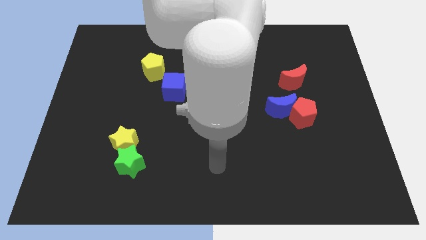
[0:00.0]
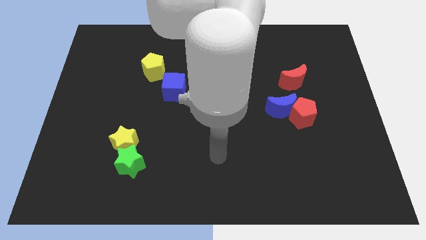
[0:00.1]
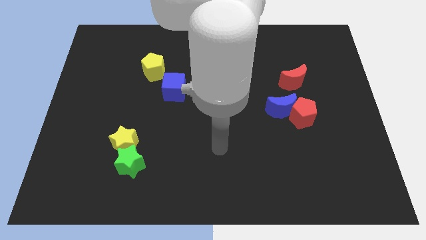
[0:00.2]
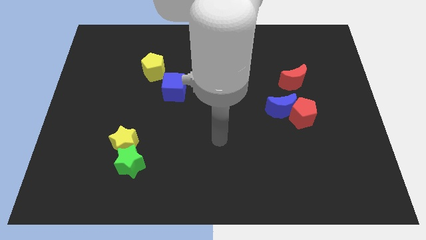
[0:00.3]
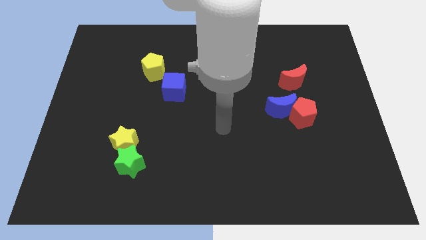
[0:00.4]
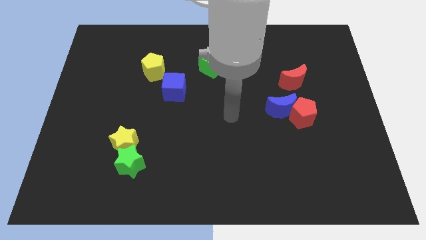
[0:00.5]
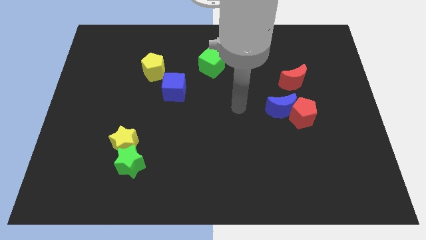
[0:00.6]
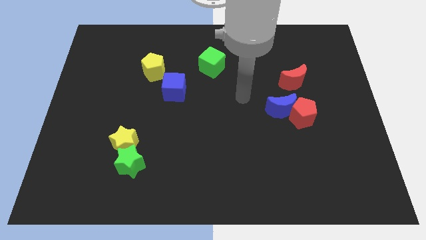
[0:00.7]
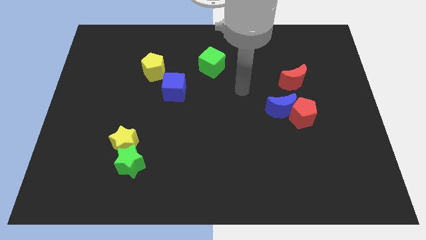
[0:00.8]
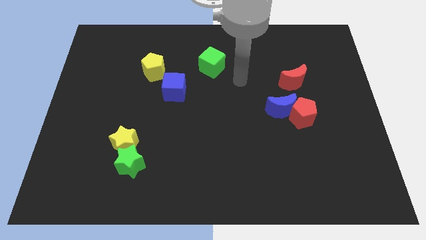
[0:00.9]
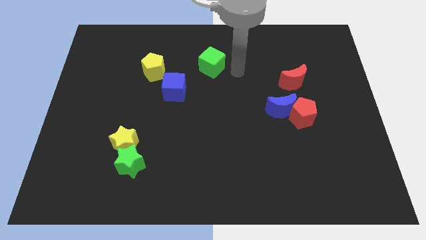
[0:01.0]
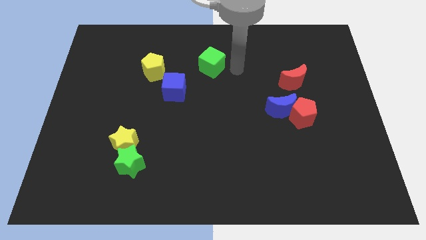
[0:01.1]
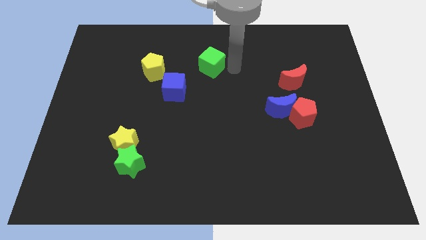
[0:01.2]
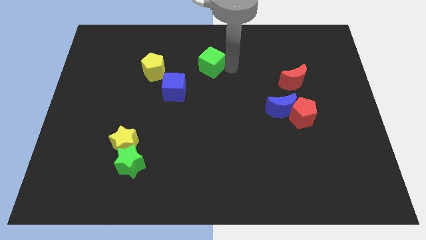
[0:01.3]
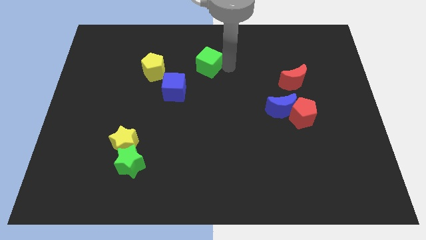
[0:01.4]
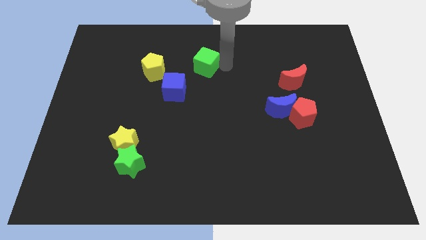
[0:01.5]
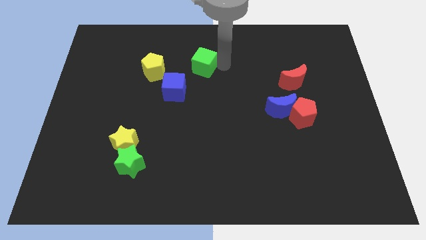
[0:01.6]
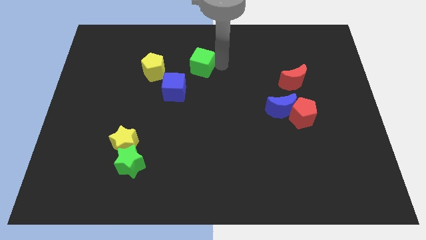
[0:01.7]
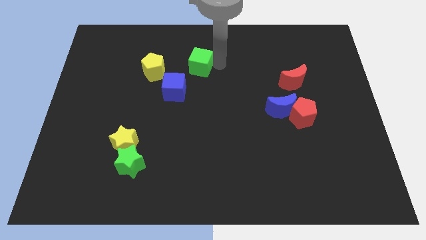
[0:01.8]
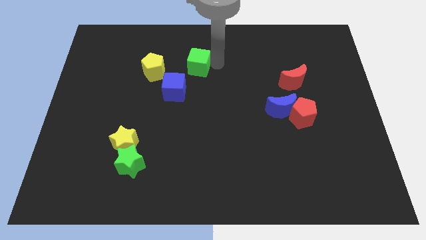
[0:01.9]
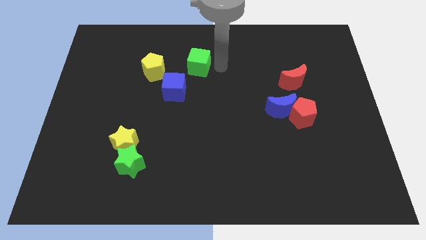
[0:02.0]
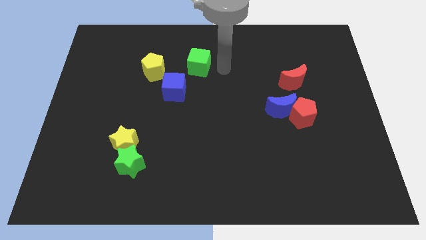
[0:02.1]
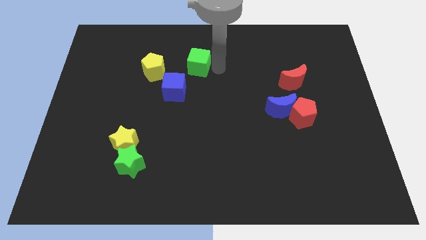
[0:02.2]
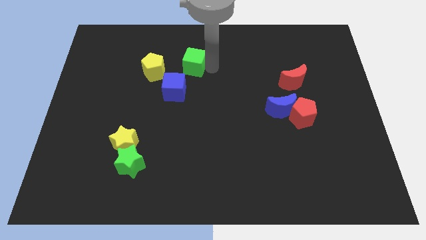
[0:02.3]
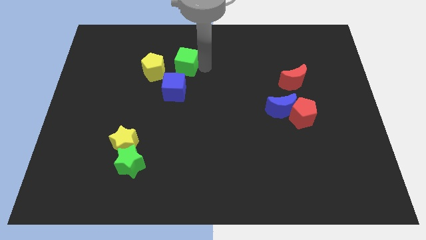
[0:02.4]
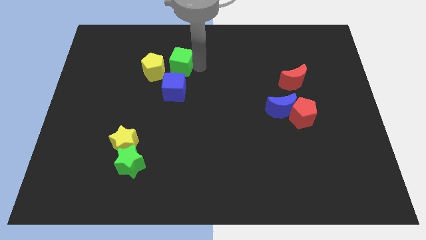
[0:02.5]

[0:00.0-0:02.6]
move the green cube a little left

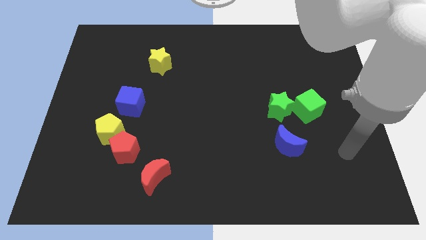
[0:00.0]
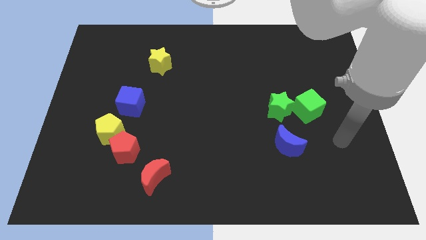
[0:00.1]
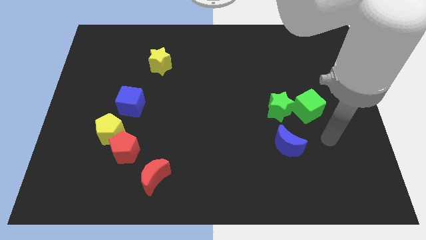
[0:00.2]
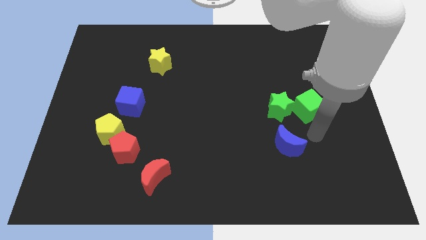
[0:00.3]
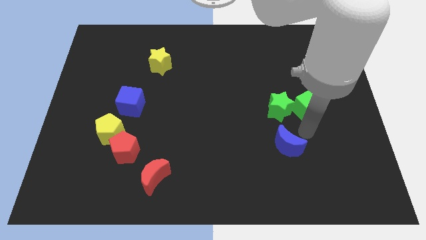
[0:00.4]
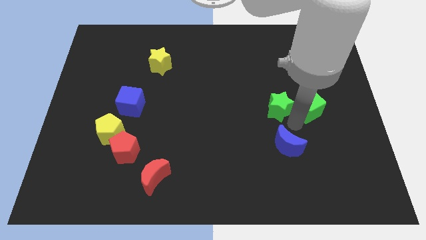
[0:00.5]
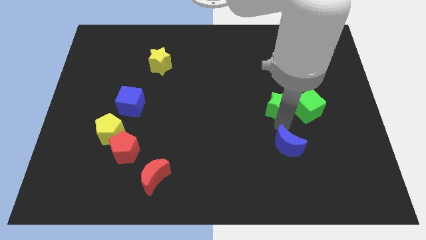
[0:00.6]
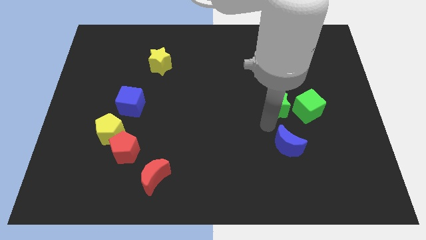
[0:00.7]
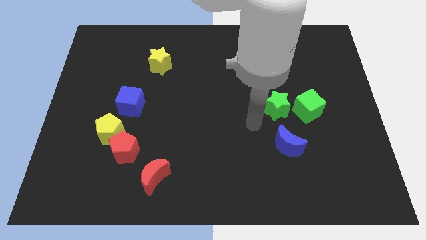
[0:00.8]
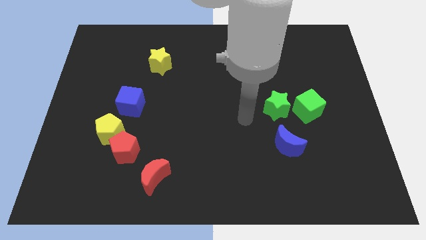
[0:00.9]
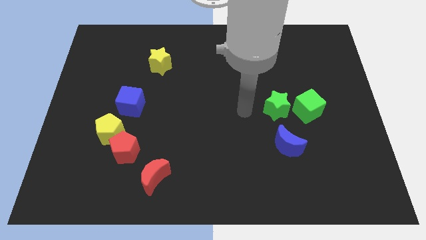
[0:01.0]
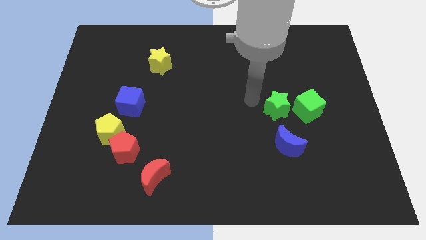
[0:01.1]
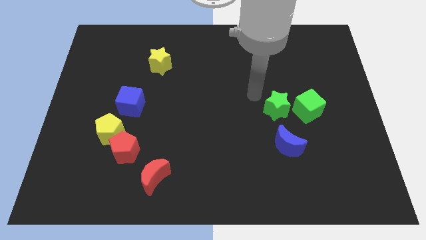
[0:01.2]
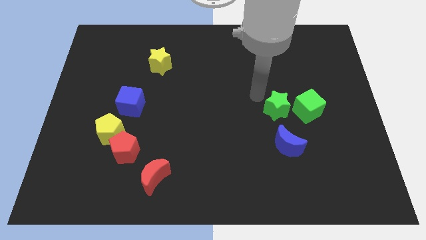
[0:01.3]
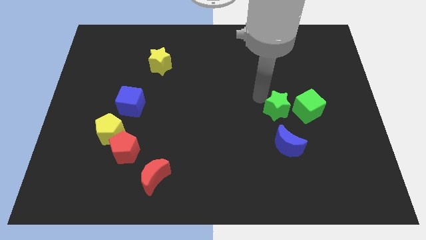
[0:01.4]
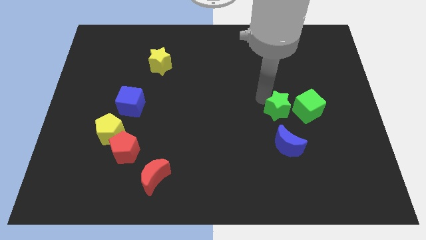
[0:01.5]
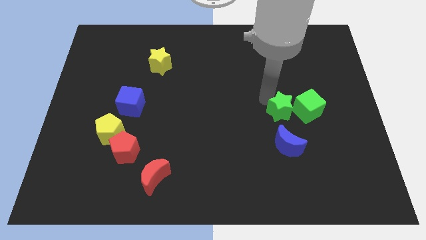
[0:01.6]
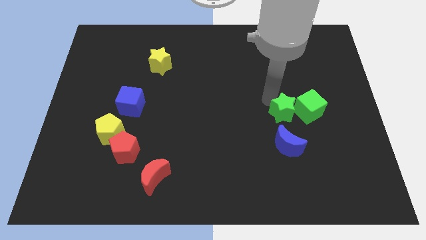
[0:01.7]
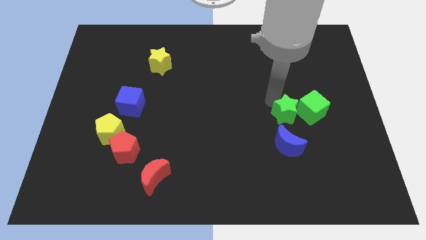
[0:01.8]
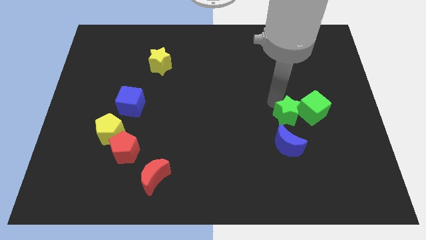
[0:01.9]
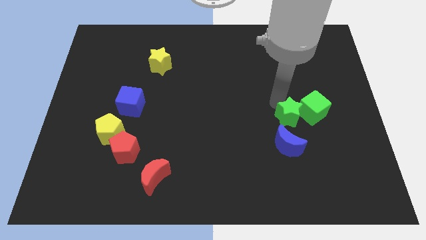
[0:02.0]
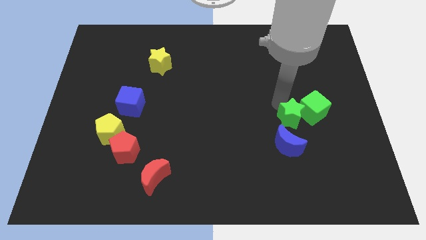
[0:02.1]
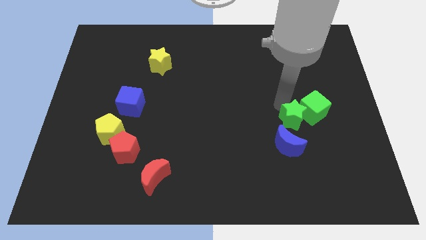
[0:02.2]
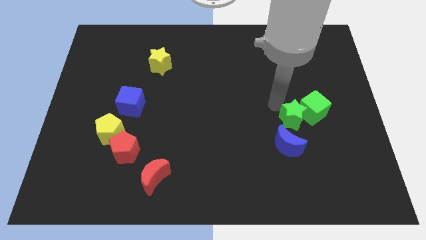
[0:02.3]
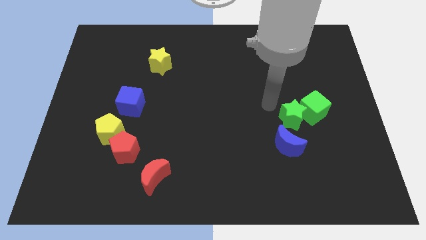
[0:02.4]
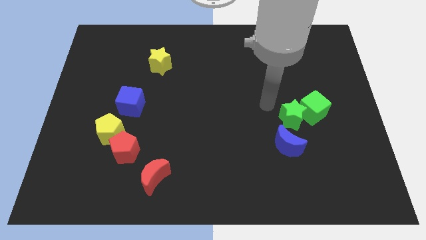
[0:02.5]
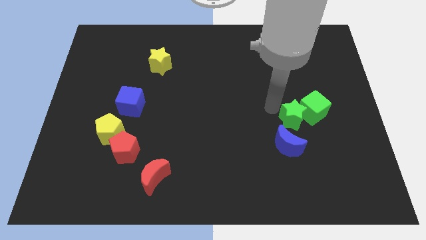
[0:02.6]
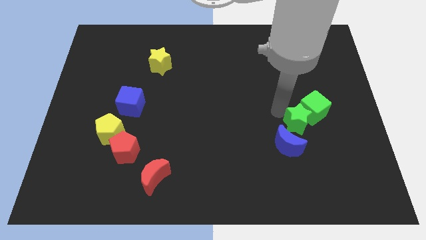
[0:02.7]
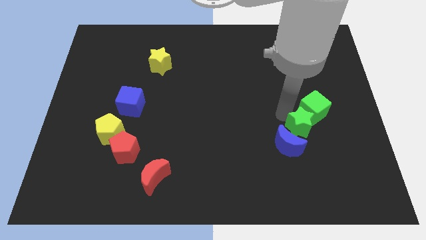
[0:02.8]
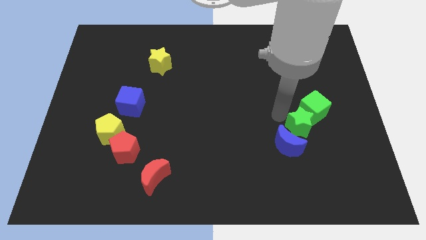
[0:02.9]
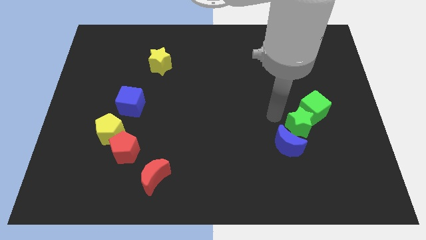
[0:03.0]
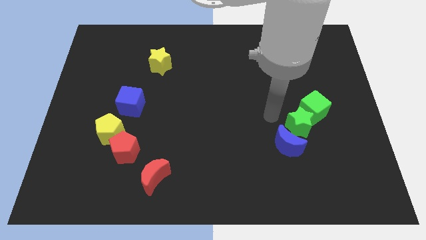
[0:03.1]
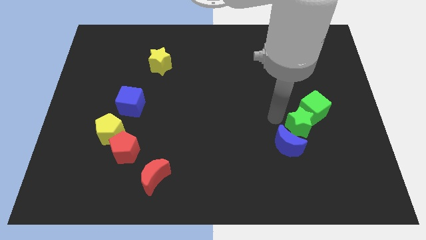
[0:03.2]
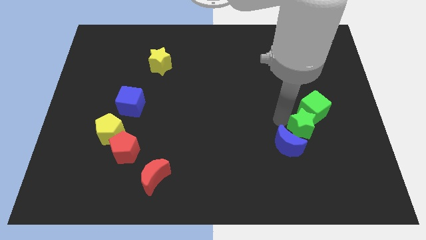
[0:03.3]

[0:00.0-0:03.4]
slightly move the green star downwards and to the right diagonally

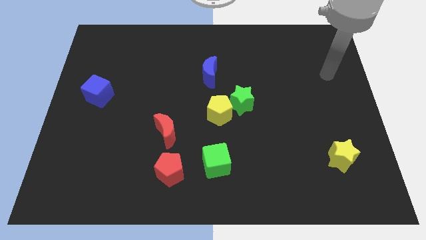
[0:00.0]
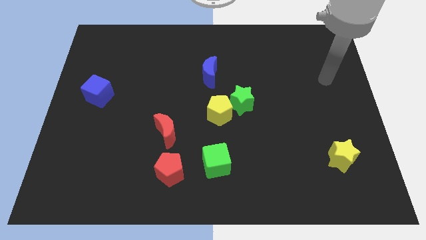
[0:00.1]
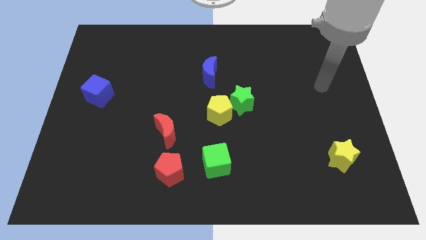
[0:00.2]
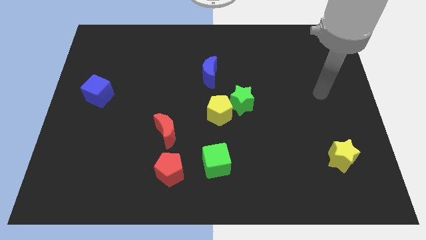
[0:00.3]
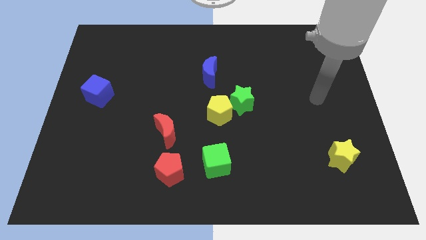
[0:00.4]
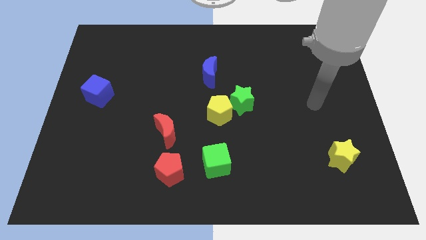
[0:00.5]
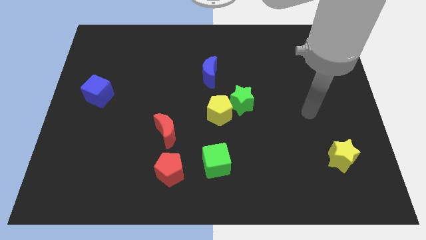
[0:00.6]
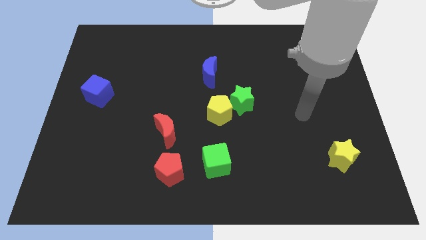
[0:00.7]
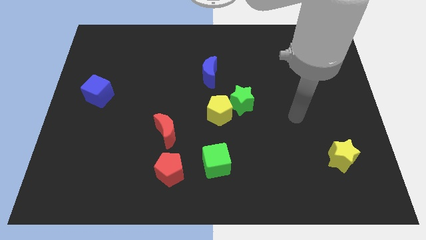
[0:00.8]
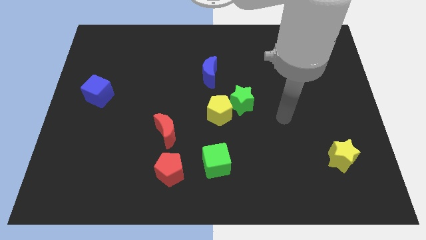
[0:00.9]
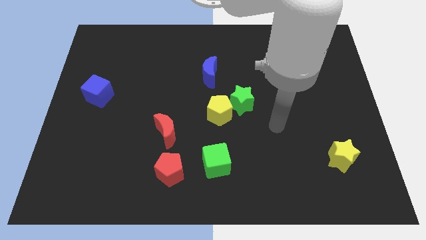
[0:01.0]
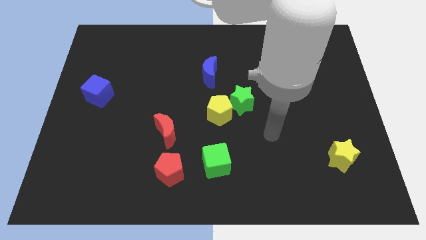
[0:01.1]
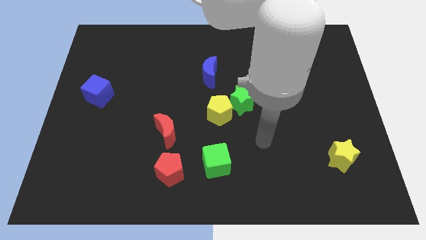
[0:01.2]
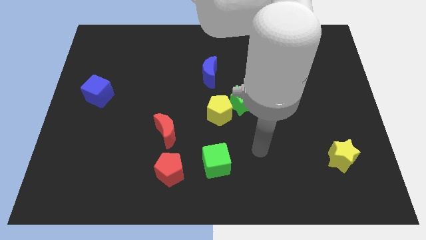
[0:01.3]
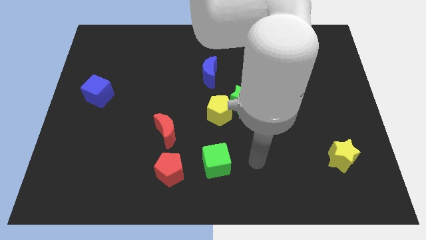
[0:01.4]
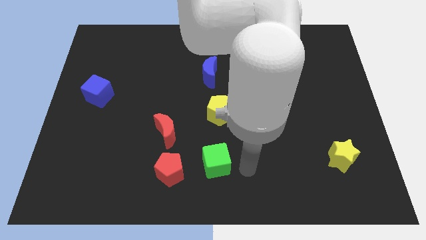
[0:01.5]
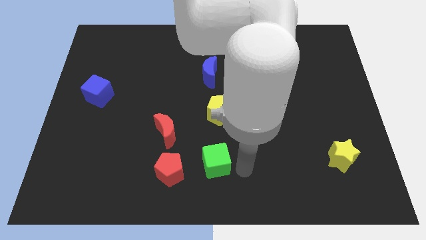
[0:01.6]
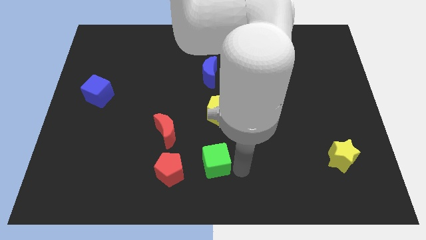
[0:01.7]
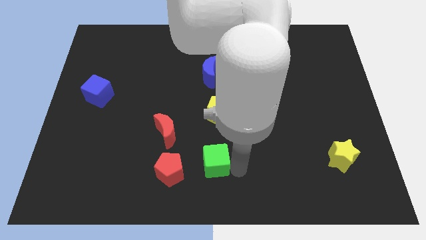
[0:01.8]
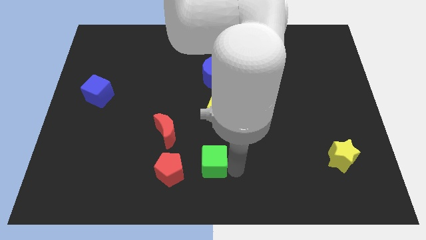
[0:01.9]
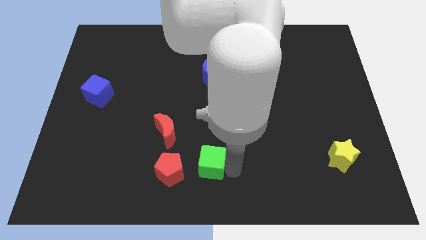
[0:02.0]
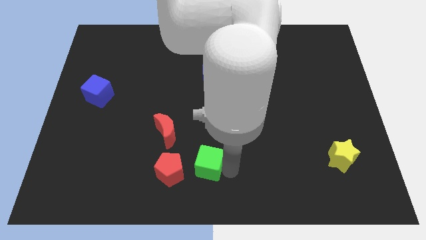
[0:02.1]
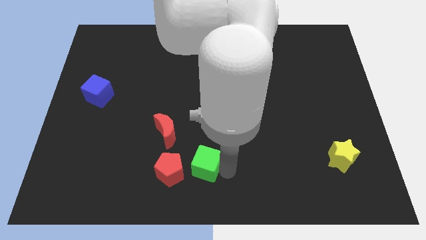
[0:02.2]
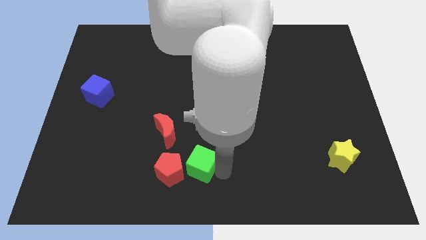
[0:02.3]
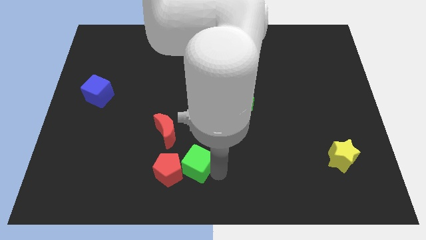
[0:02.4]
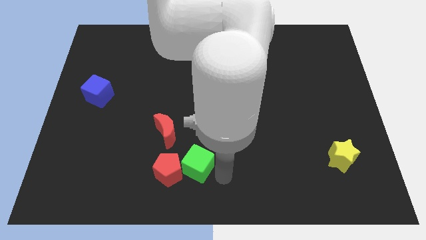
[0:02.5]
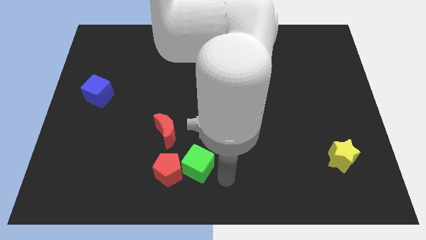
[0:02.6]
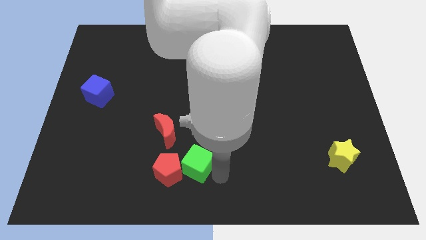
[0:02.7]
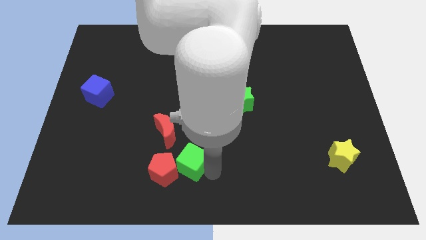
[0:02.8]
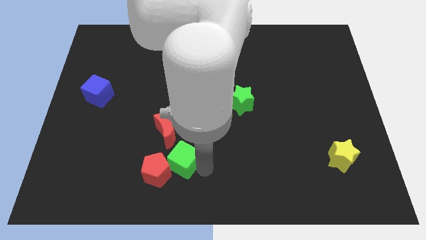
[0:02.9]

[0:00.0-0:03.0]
slightly slide the green cube to the left
